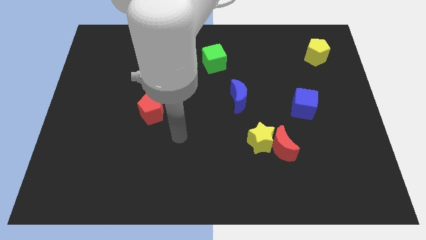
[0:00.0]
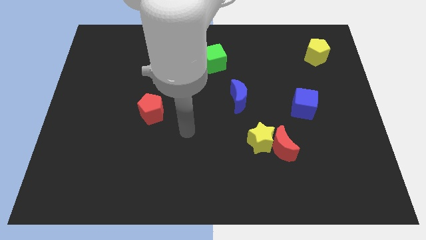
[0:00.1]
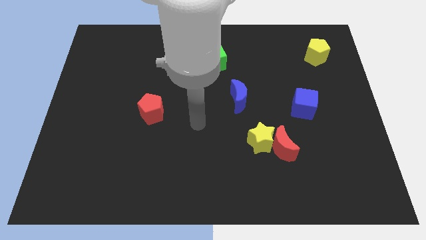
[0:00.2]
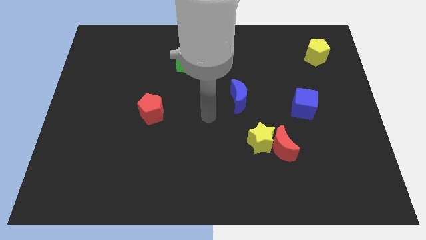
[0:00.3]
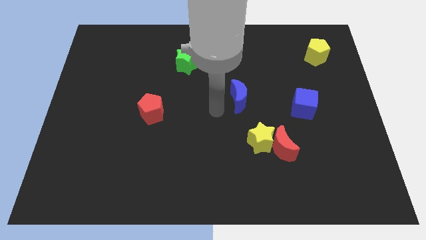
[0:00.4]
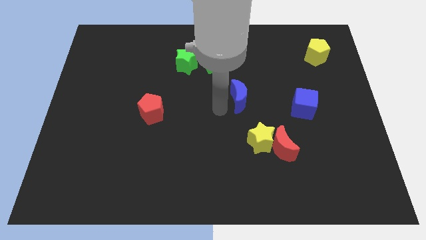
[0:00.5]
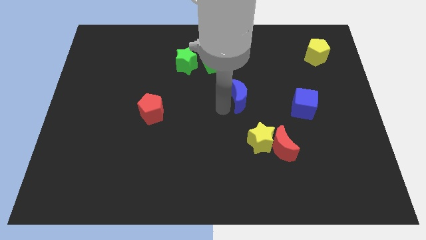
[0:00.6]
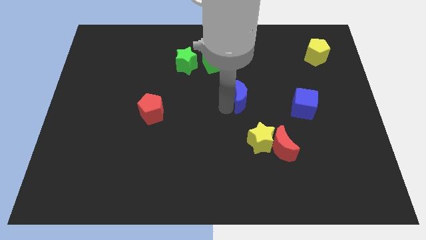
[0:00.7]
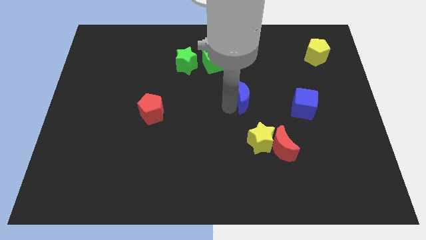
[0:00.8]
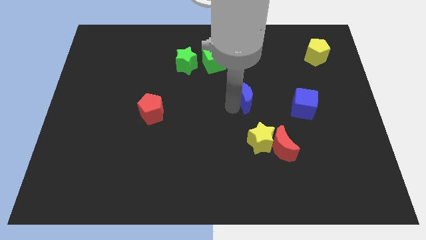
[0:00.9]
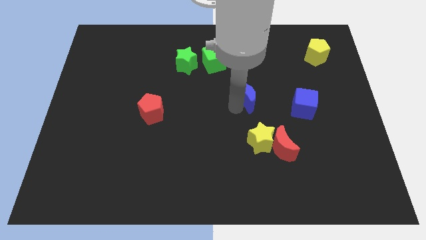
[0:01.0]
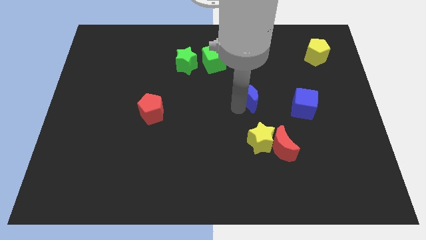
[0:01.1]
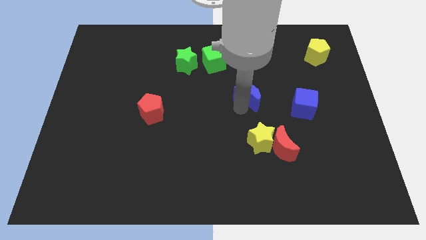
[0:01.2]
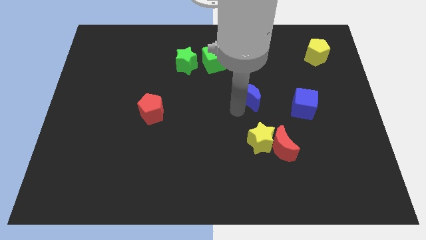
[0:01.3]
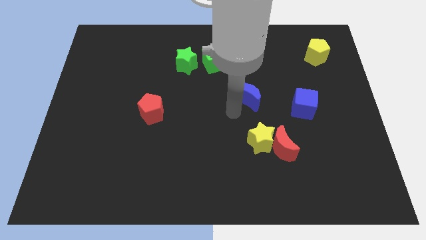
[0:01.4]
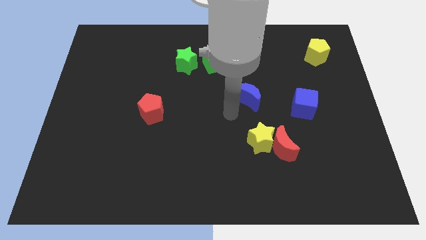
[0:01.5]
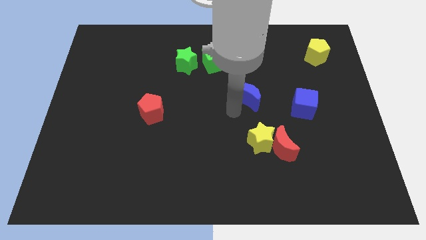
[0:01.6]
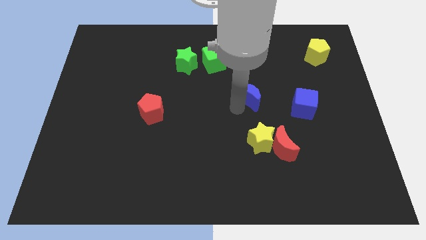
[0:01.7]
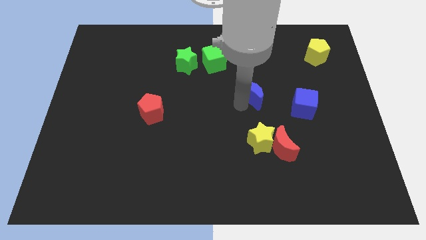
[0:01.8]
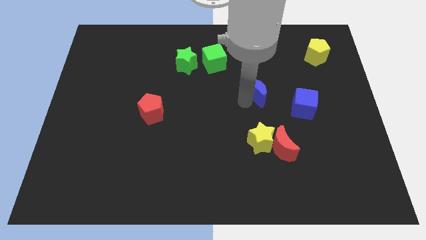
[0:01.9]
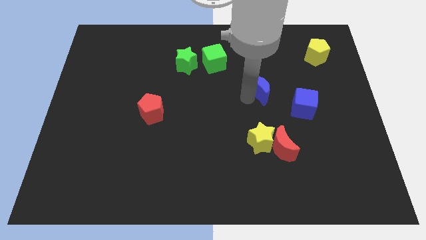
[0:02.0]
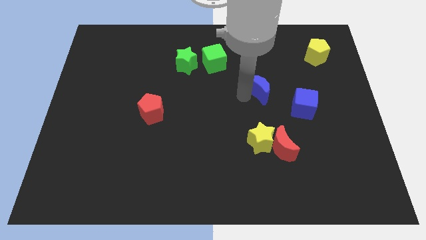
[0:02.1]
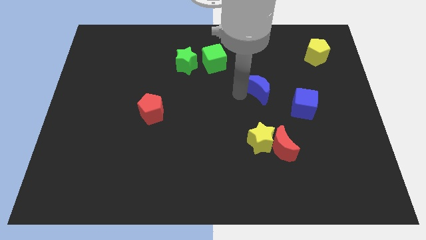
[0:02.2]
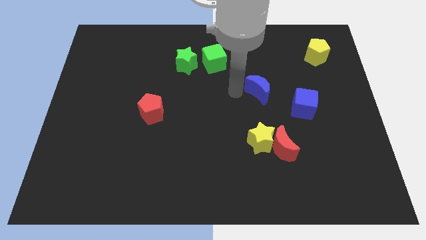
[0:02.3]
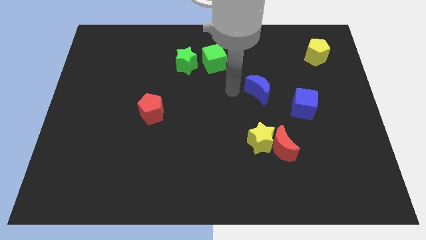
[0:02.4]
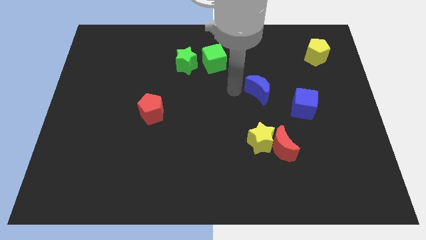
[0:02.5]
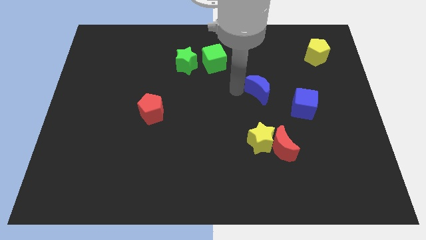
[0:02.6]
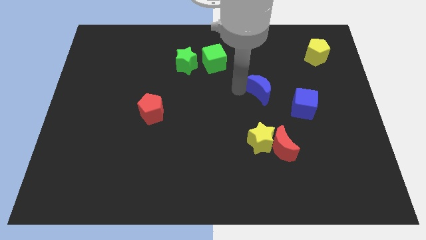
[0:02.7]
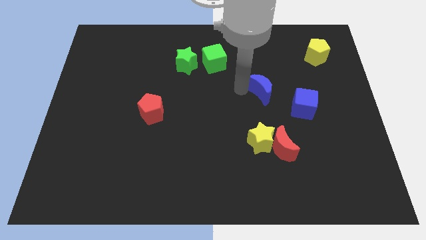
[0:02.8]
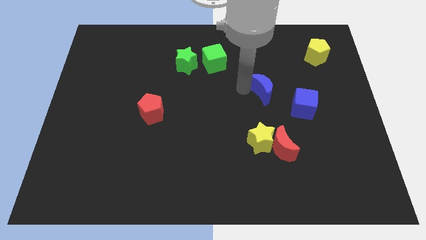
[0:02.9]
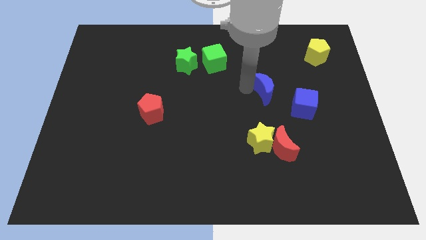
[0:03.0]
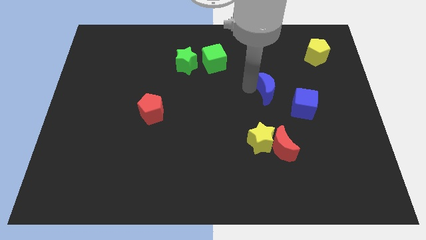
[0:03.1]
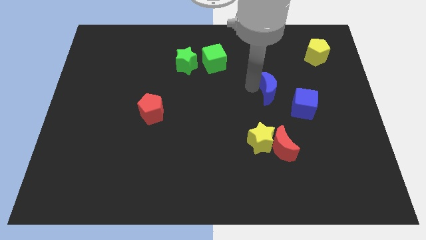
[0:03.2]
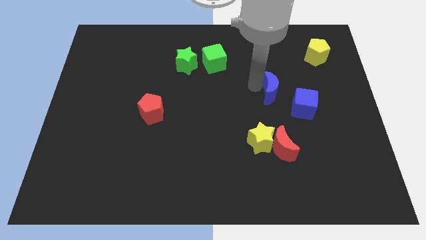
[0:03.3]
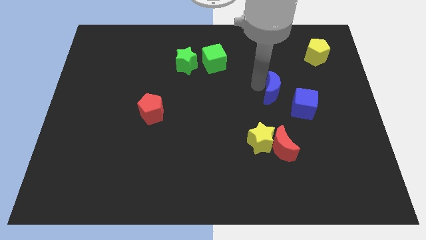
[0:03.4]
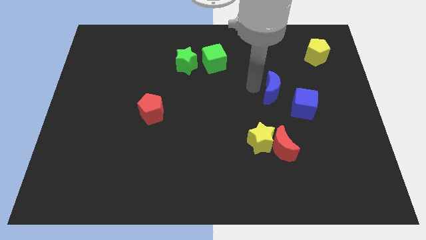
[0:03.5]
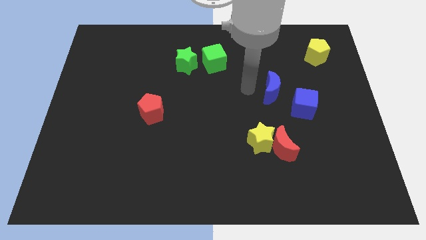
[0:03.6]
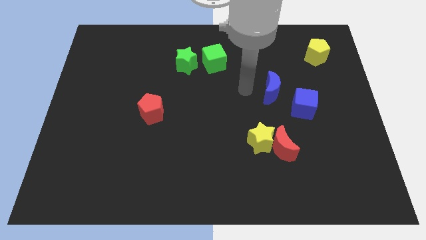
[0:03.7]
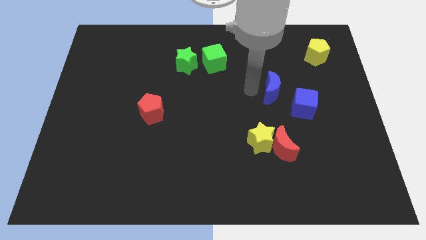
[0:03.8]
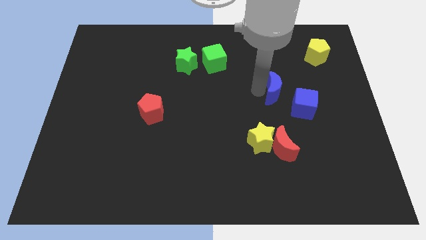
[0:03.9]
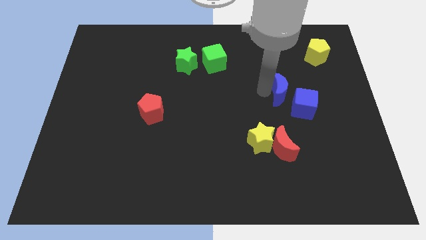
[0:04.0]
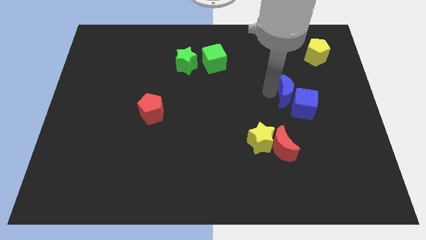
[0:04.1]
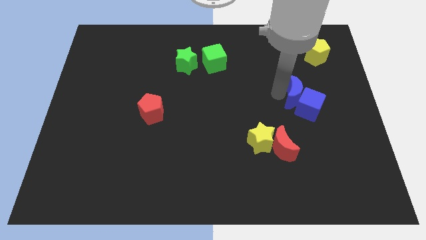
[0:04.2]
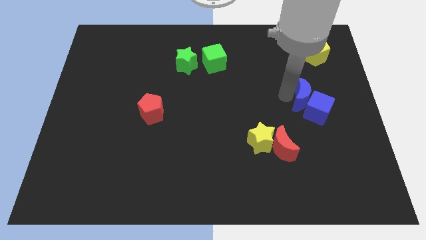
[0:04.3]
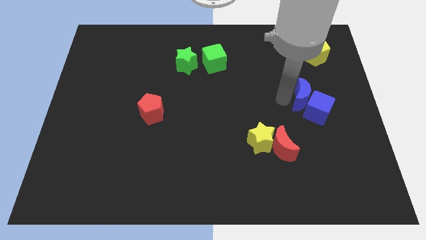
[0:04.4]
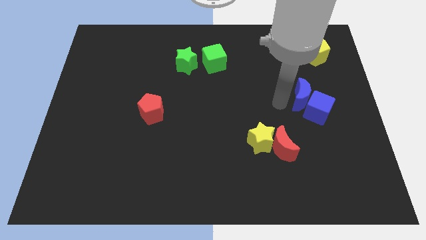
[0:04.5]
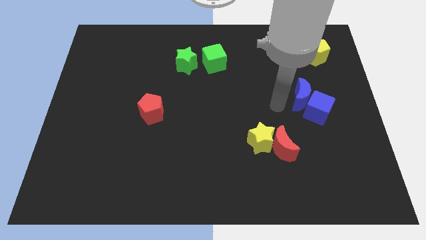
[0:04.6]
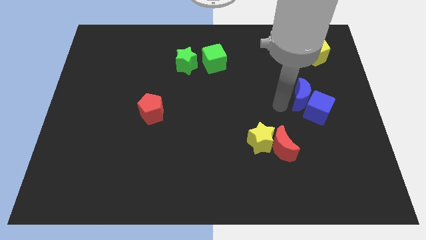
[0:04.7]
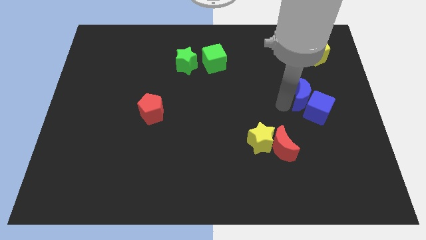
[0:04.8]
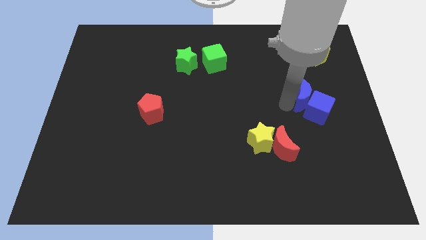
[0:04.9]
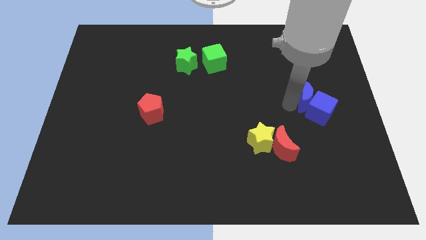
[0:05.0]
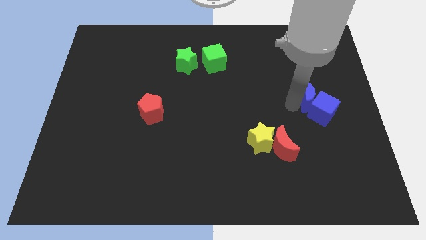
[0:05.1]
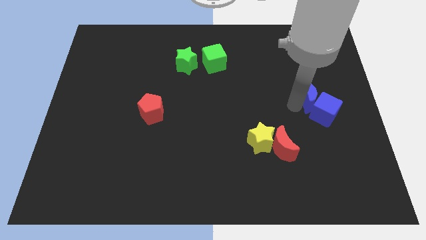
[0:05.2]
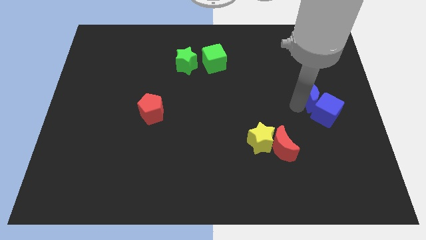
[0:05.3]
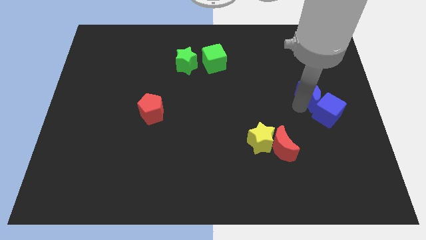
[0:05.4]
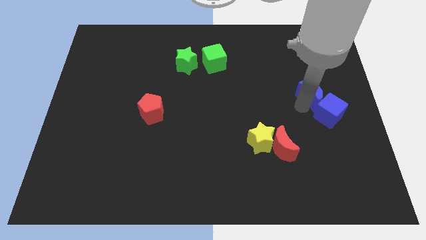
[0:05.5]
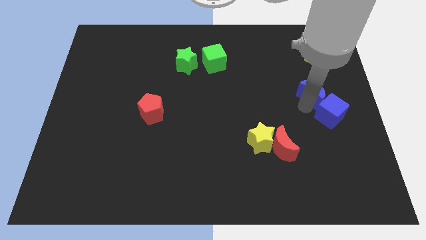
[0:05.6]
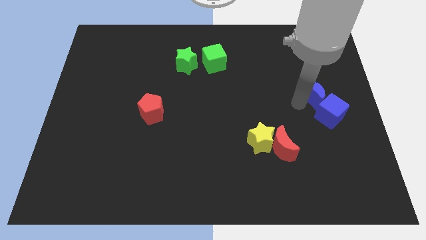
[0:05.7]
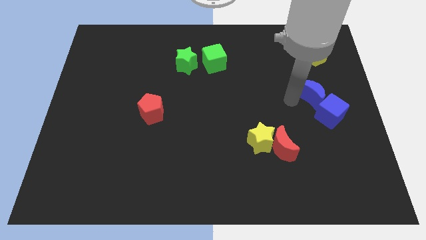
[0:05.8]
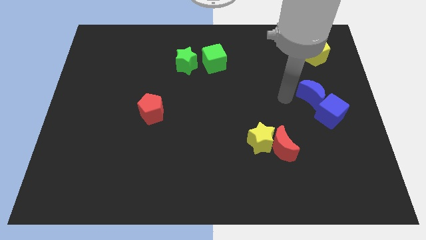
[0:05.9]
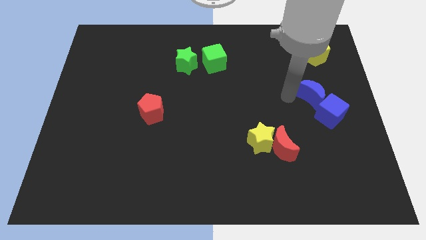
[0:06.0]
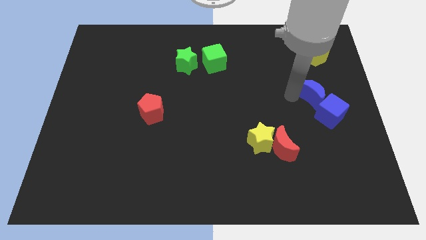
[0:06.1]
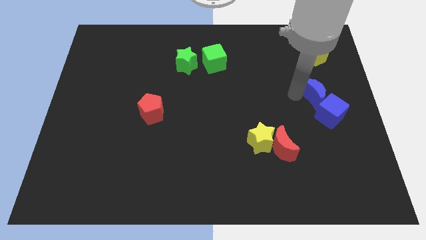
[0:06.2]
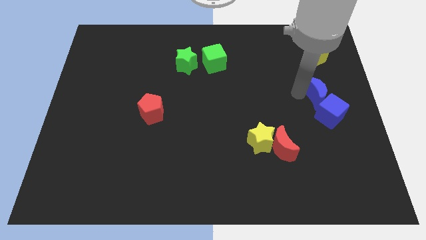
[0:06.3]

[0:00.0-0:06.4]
move the blue moon to the center right
